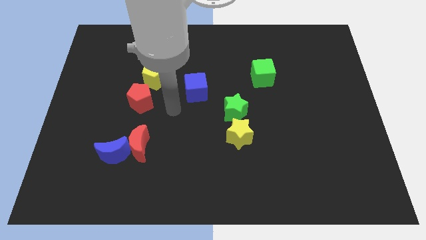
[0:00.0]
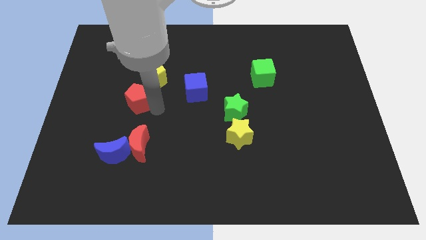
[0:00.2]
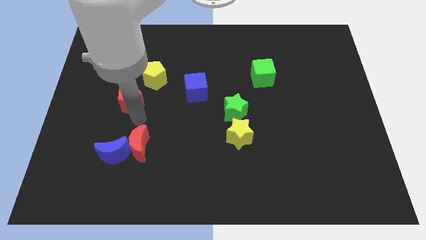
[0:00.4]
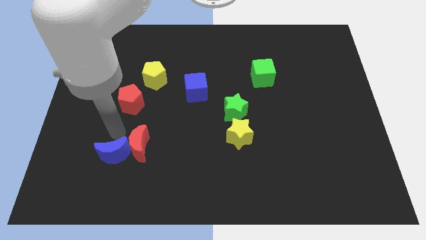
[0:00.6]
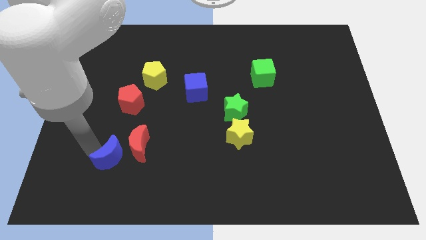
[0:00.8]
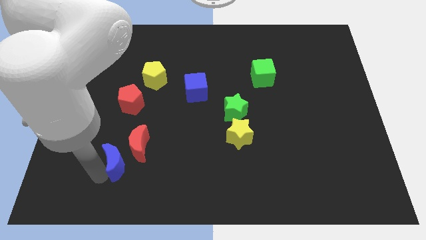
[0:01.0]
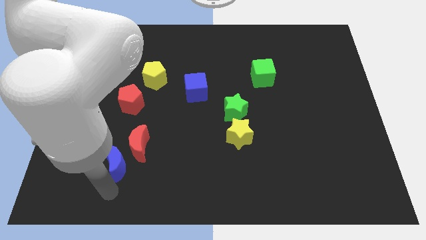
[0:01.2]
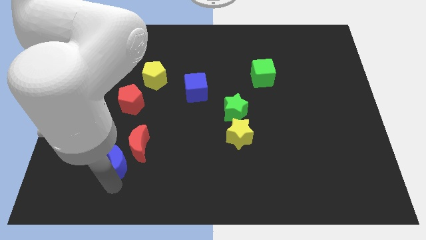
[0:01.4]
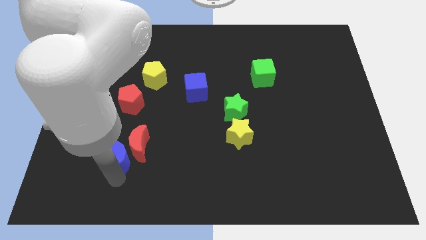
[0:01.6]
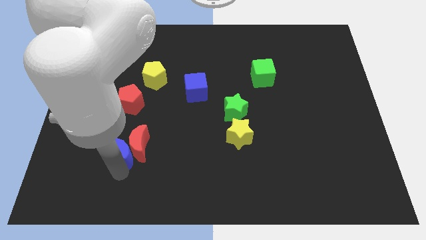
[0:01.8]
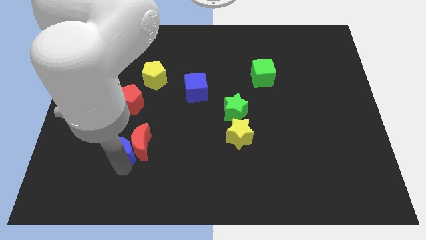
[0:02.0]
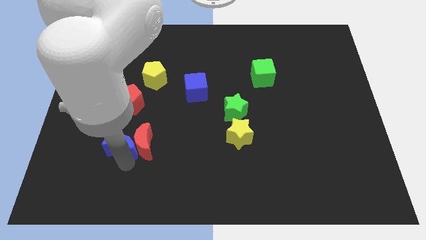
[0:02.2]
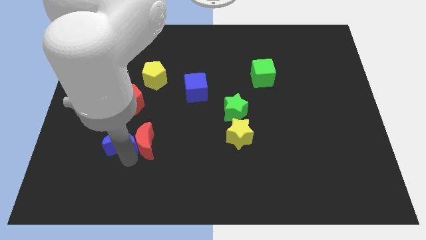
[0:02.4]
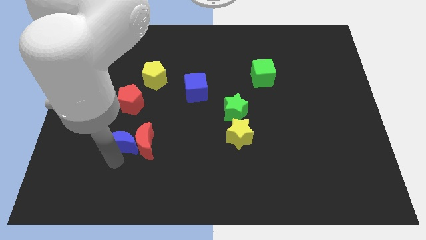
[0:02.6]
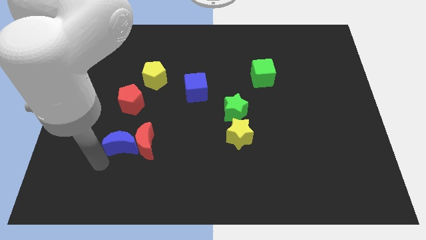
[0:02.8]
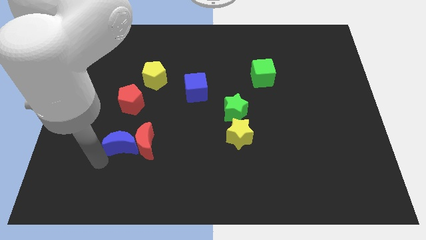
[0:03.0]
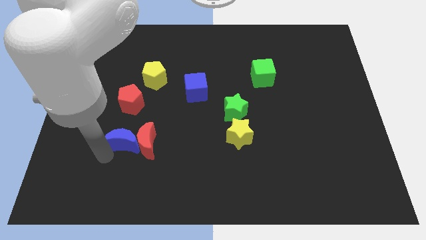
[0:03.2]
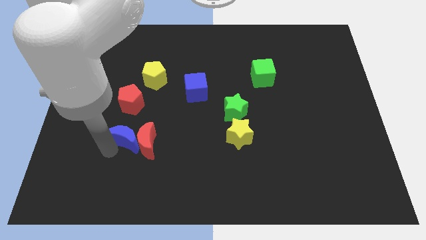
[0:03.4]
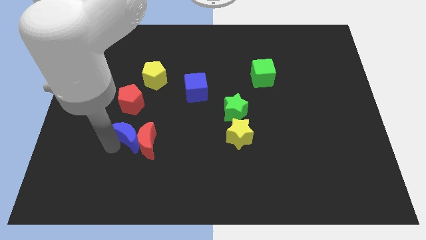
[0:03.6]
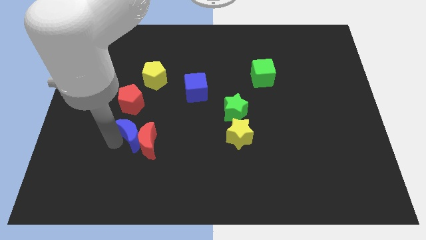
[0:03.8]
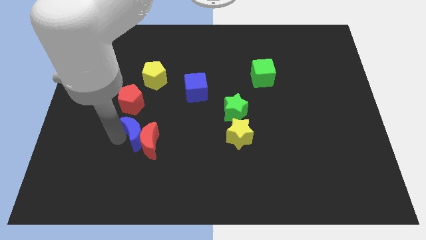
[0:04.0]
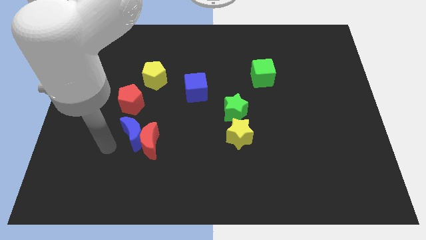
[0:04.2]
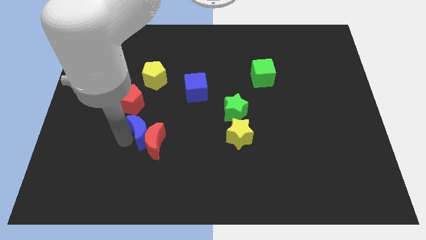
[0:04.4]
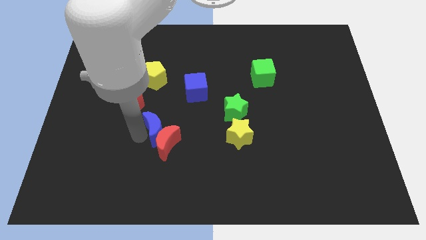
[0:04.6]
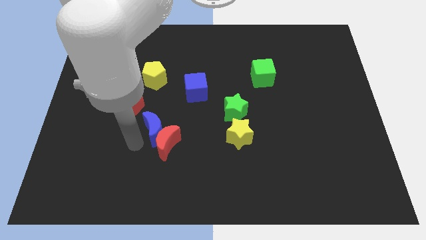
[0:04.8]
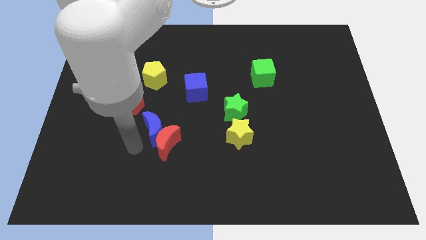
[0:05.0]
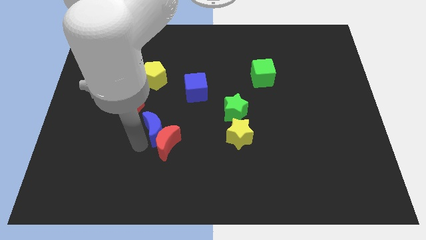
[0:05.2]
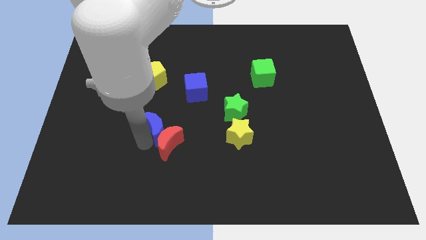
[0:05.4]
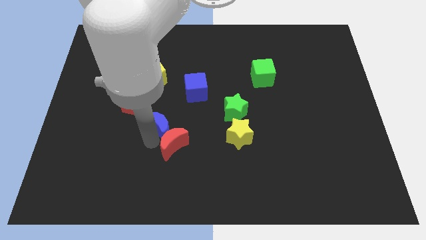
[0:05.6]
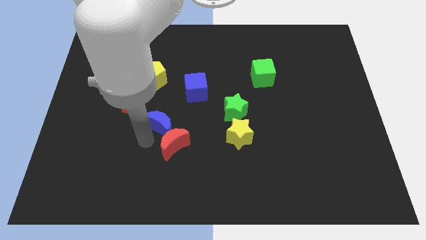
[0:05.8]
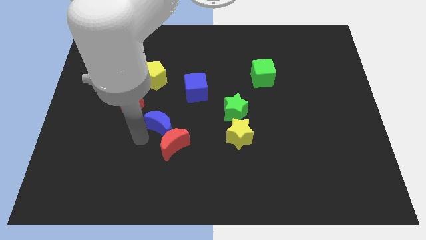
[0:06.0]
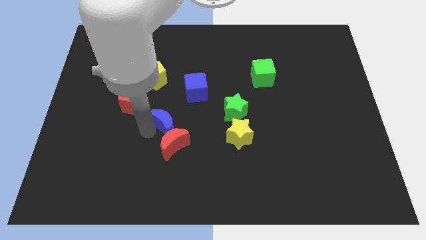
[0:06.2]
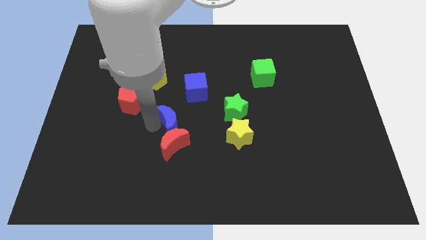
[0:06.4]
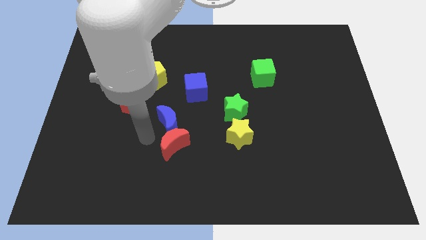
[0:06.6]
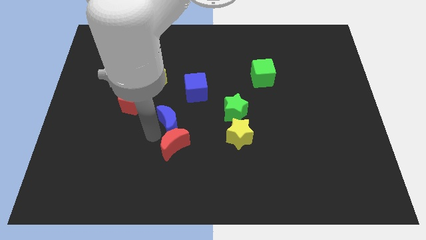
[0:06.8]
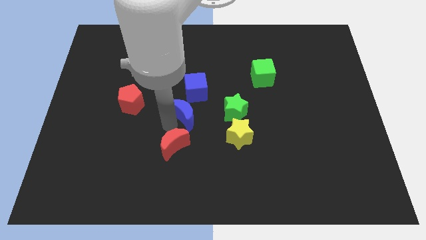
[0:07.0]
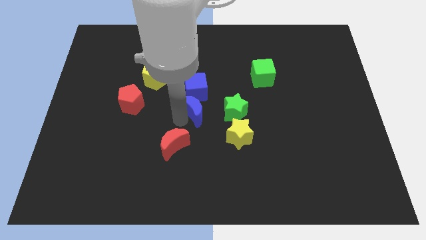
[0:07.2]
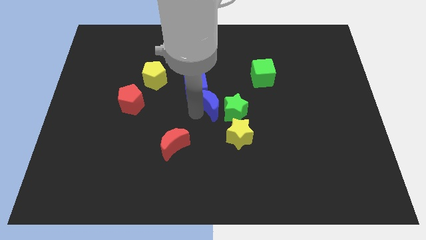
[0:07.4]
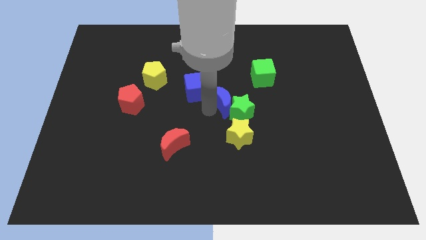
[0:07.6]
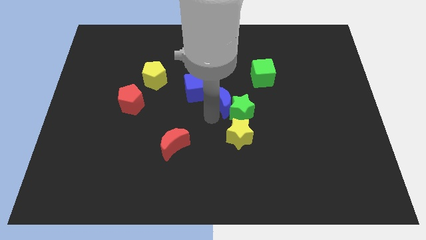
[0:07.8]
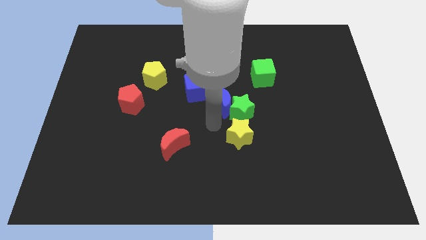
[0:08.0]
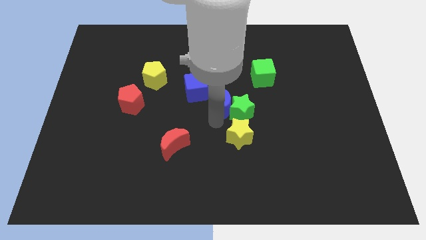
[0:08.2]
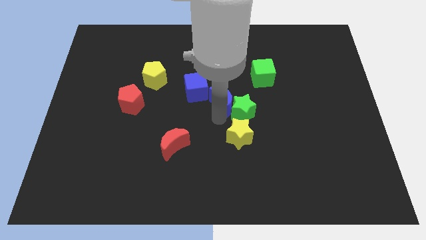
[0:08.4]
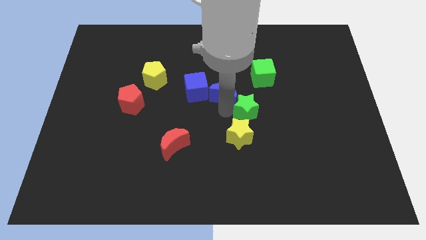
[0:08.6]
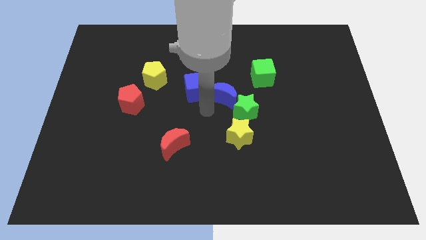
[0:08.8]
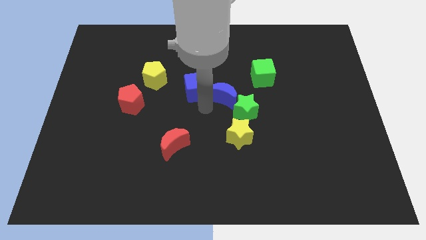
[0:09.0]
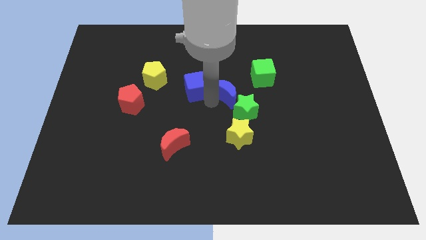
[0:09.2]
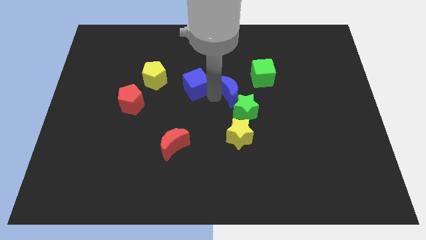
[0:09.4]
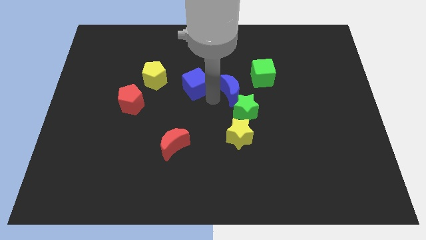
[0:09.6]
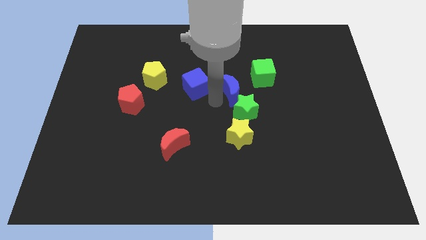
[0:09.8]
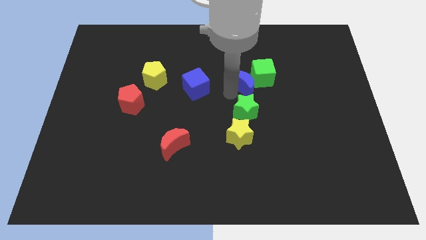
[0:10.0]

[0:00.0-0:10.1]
put the blue moon towards the green cube

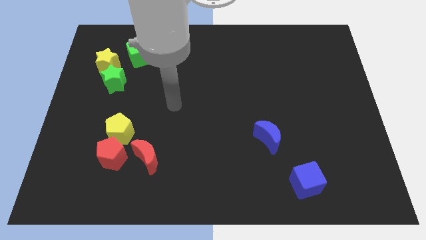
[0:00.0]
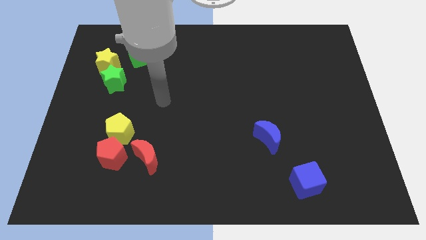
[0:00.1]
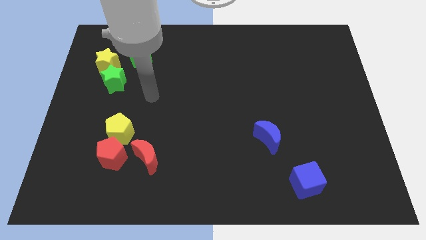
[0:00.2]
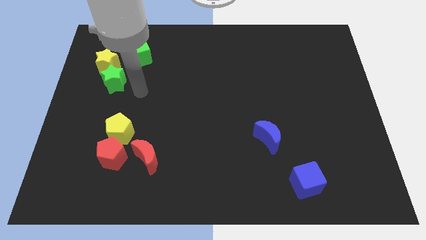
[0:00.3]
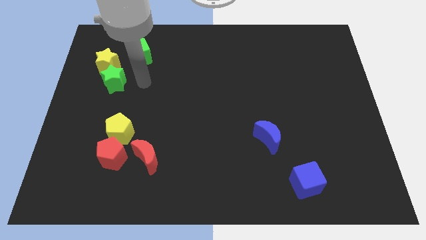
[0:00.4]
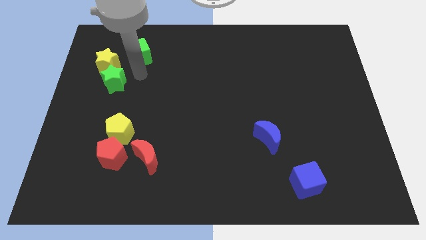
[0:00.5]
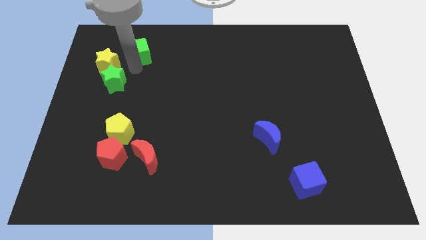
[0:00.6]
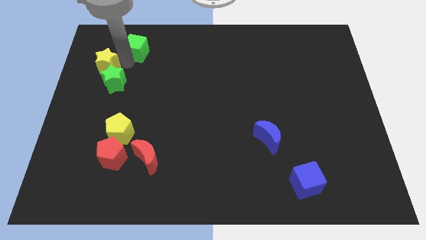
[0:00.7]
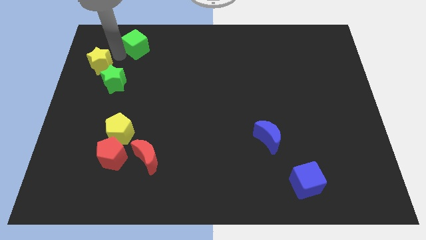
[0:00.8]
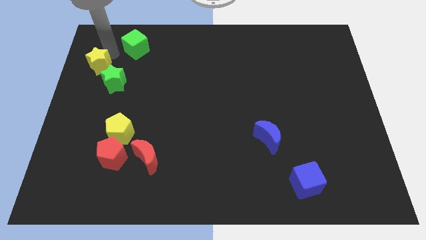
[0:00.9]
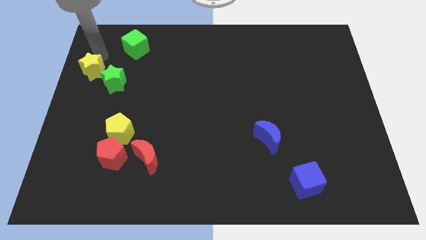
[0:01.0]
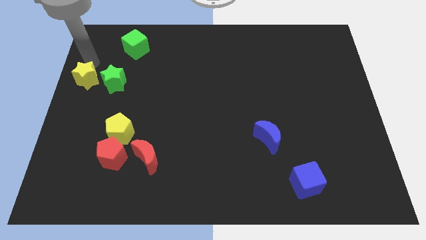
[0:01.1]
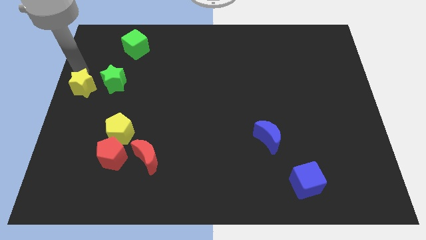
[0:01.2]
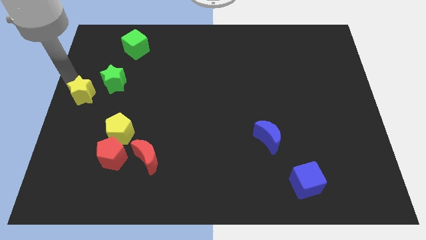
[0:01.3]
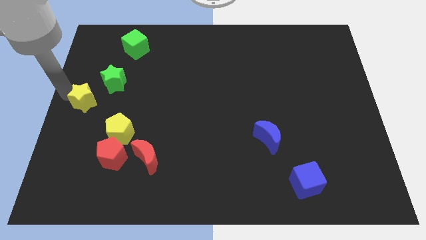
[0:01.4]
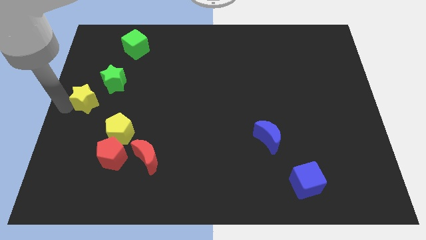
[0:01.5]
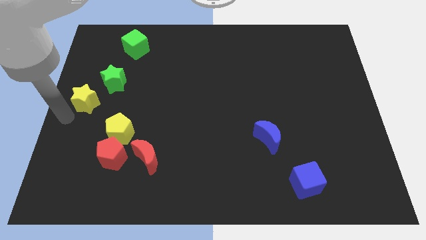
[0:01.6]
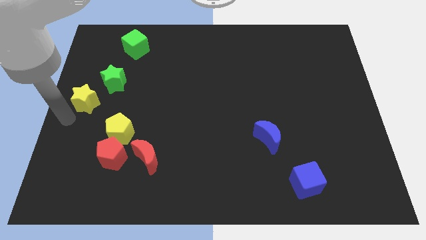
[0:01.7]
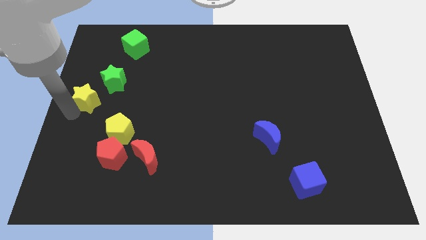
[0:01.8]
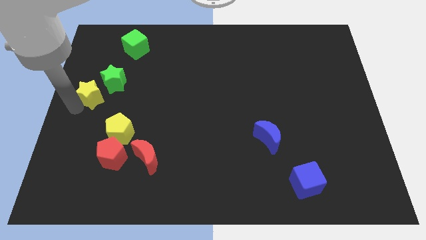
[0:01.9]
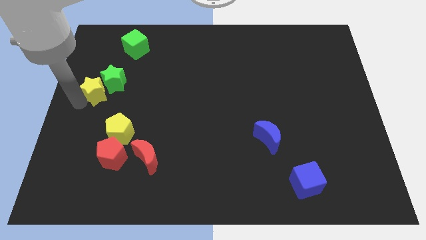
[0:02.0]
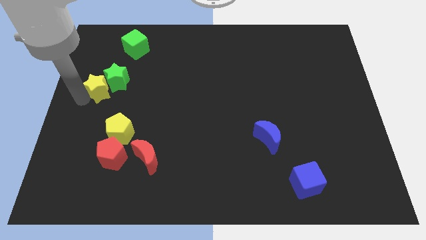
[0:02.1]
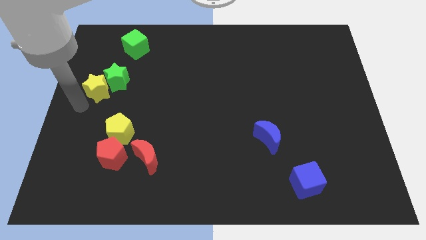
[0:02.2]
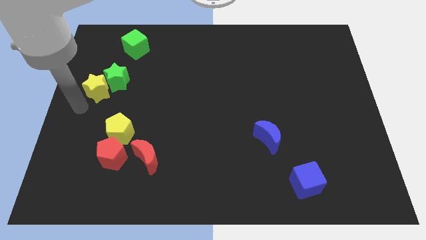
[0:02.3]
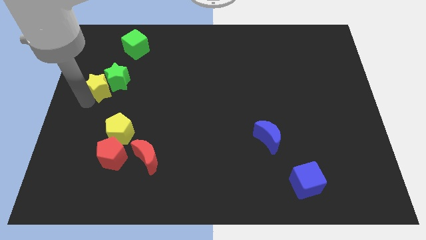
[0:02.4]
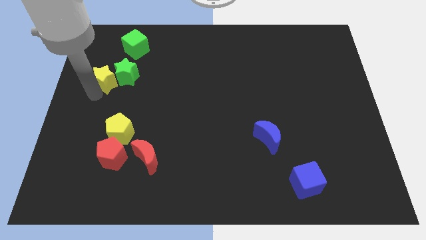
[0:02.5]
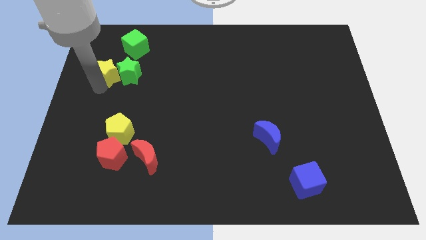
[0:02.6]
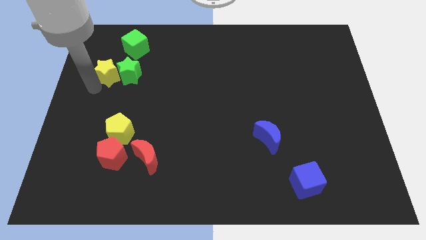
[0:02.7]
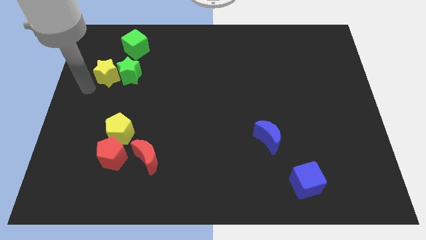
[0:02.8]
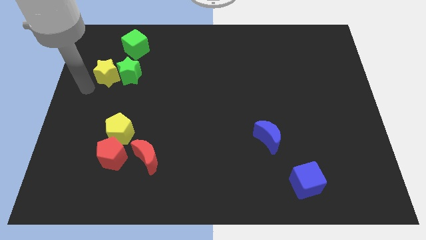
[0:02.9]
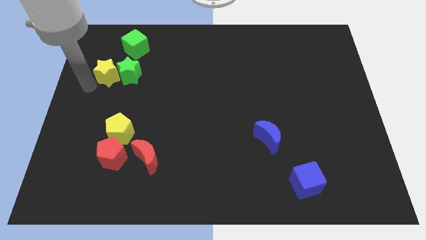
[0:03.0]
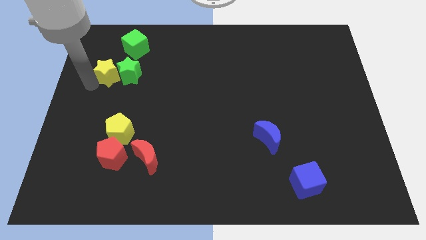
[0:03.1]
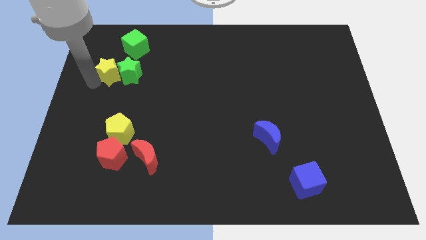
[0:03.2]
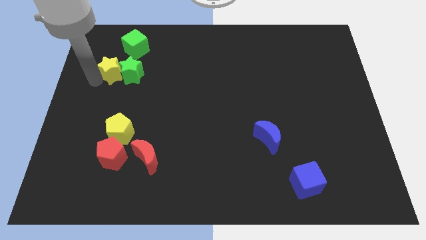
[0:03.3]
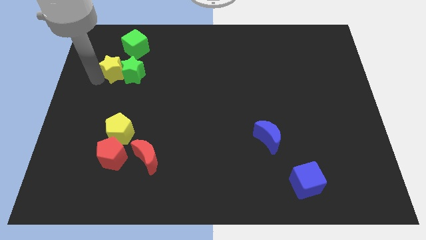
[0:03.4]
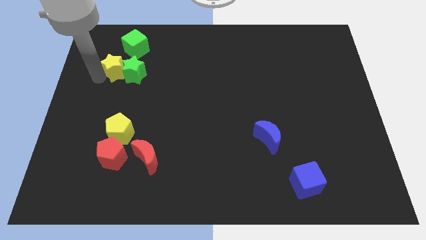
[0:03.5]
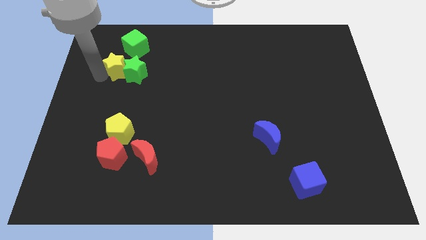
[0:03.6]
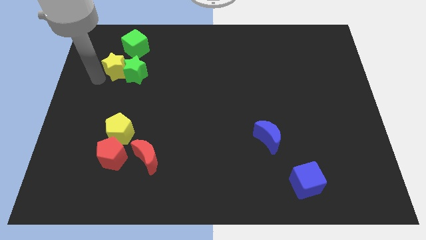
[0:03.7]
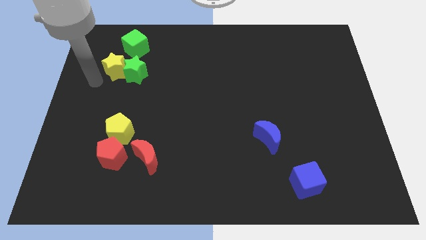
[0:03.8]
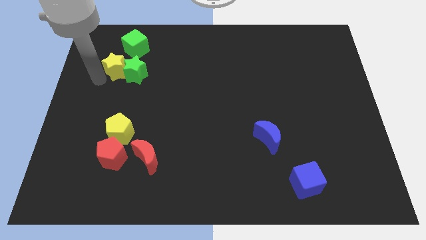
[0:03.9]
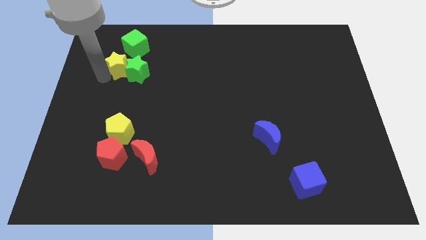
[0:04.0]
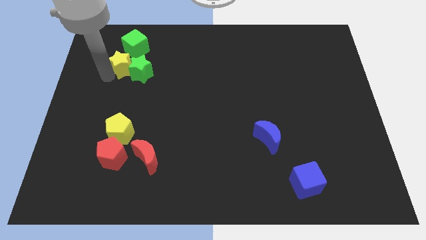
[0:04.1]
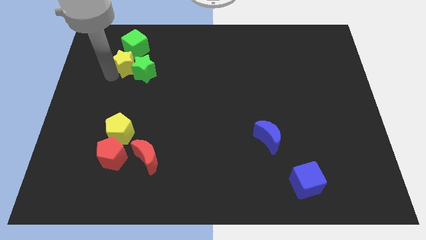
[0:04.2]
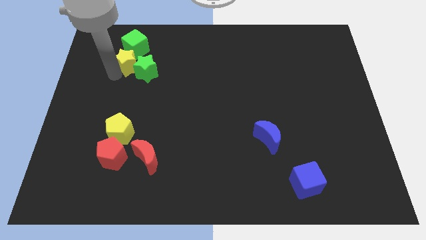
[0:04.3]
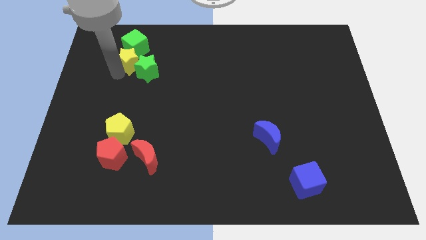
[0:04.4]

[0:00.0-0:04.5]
put the yellow star towards the green cube
